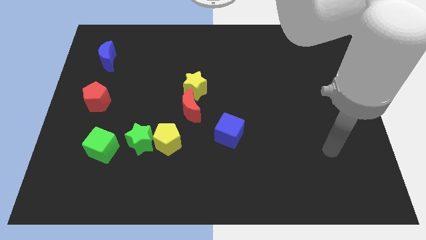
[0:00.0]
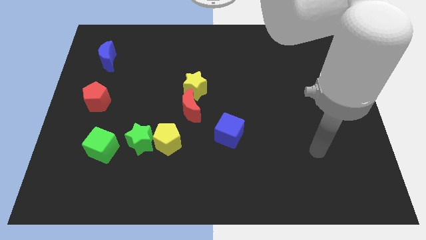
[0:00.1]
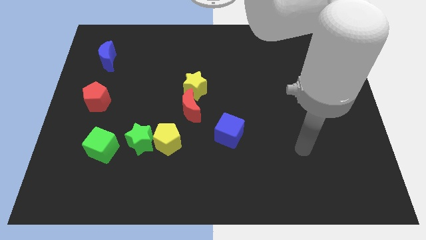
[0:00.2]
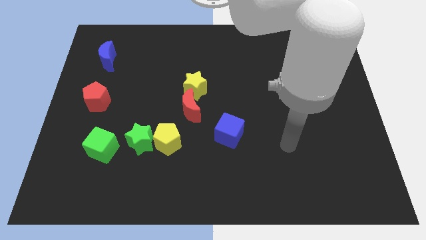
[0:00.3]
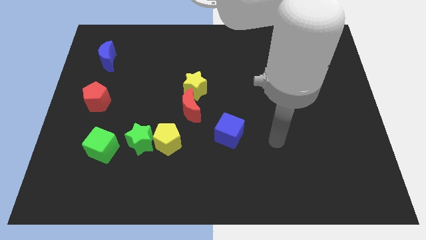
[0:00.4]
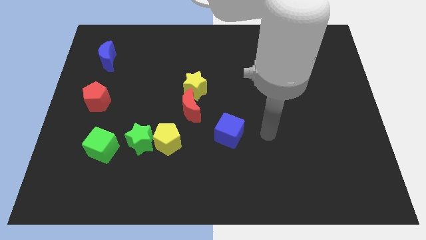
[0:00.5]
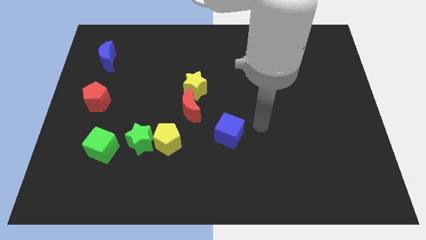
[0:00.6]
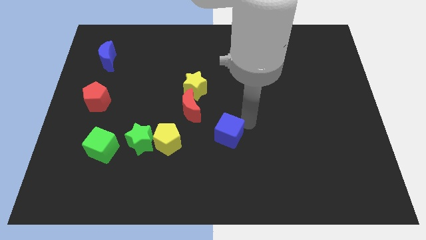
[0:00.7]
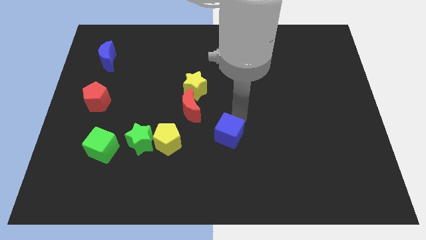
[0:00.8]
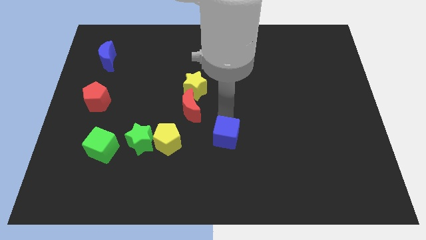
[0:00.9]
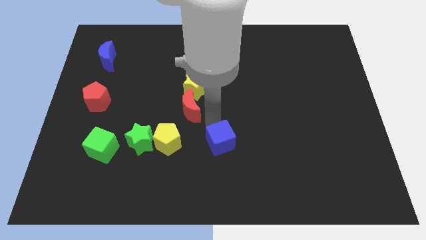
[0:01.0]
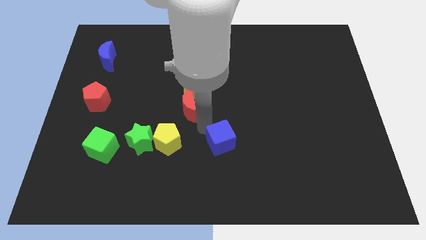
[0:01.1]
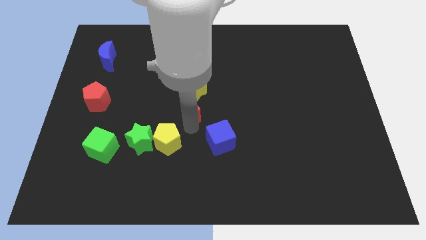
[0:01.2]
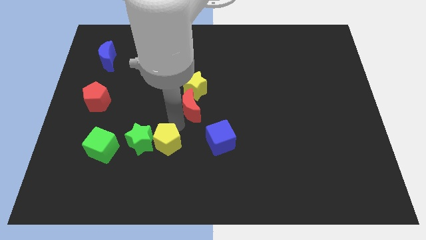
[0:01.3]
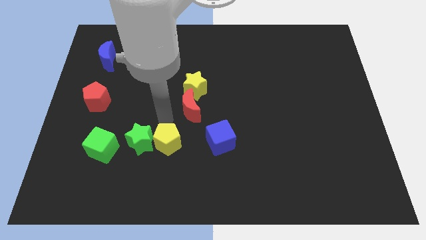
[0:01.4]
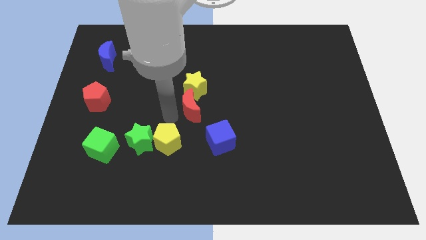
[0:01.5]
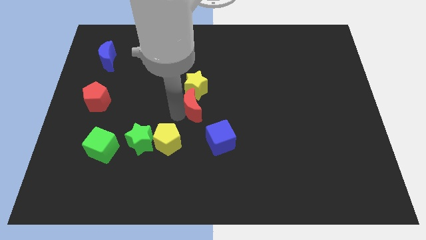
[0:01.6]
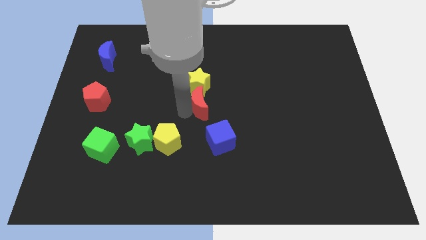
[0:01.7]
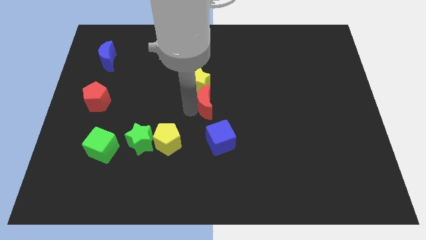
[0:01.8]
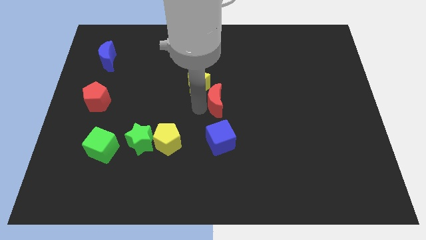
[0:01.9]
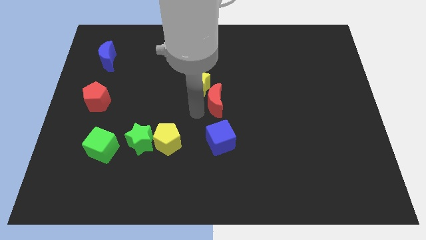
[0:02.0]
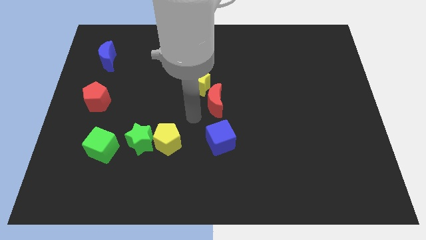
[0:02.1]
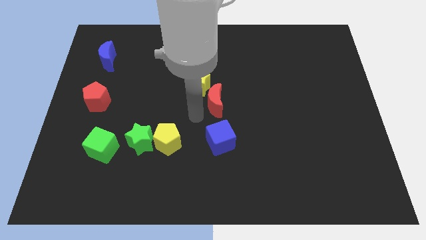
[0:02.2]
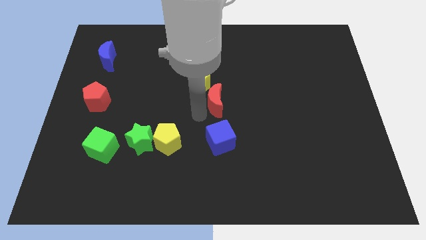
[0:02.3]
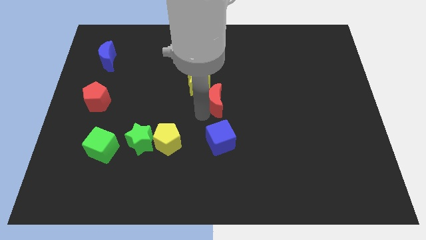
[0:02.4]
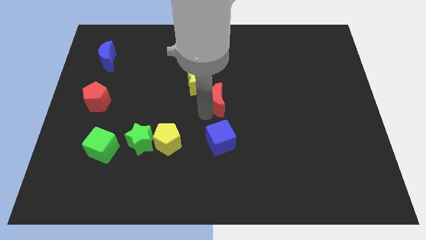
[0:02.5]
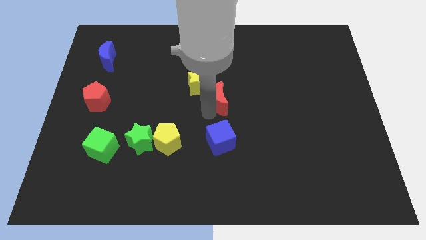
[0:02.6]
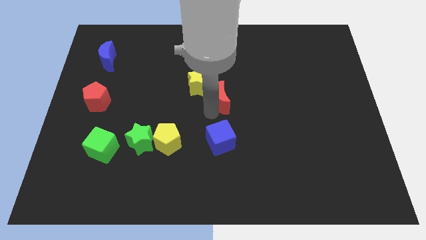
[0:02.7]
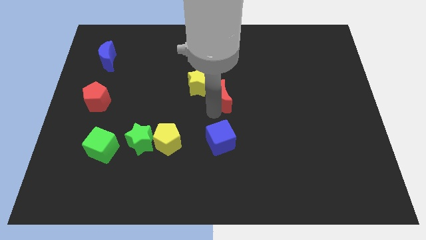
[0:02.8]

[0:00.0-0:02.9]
push the red moon up and then to the right somewhat

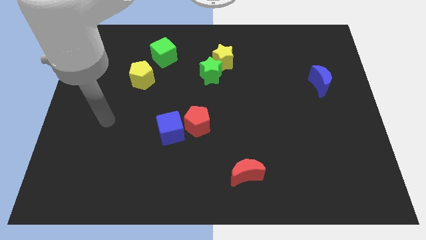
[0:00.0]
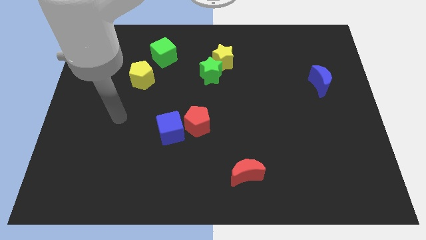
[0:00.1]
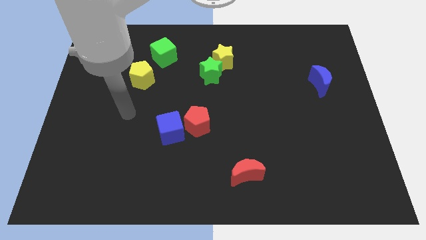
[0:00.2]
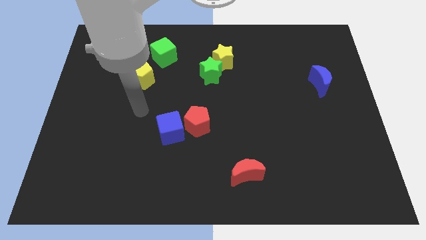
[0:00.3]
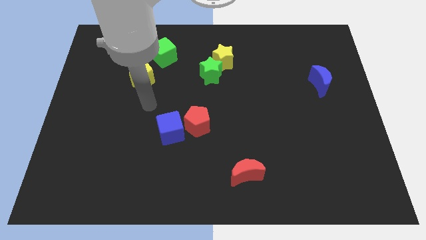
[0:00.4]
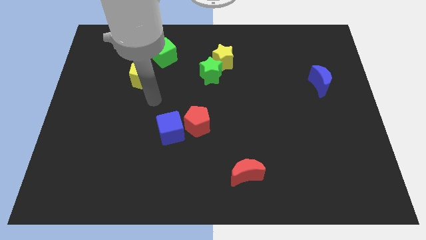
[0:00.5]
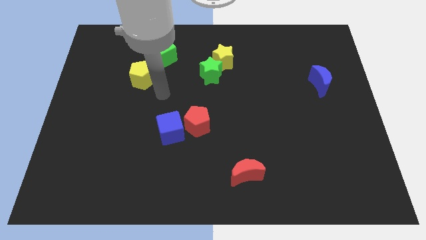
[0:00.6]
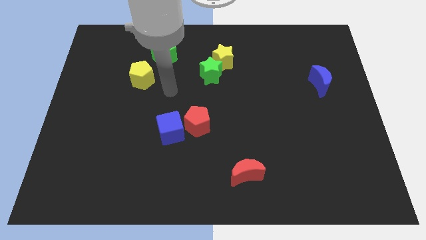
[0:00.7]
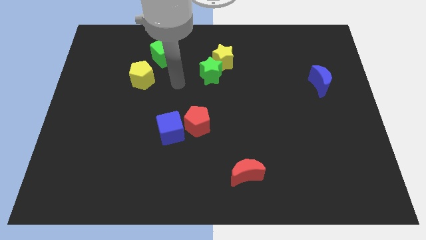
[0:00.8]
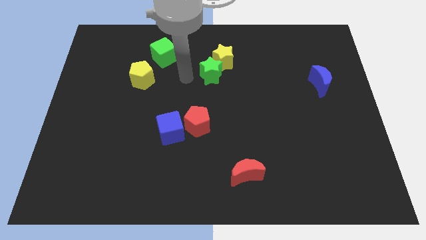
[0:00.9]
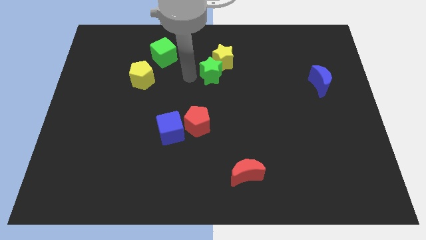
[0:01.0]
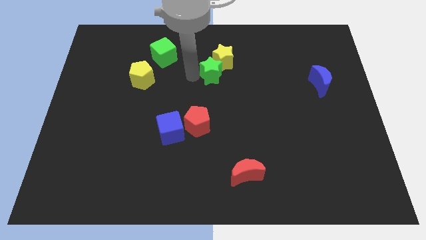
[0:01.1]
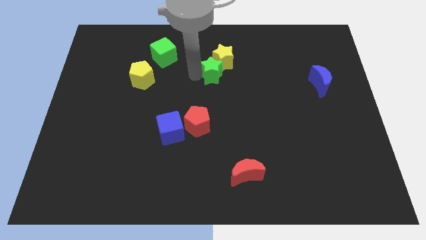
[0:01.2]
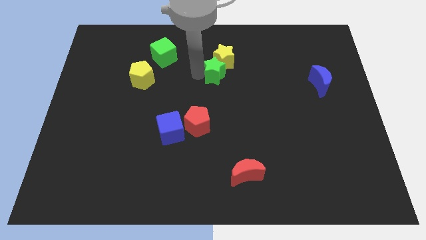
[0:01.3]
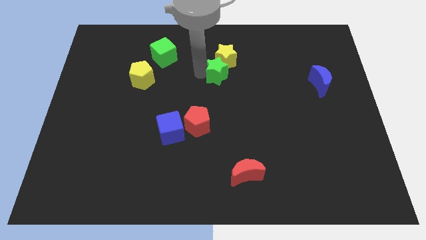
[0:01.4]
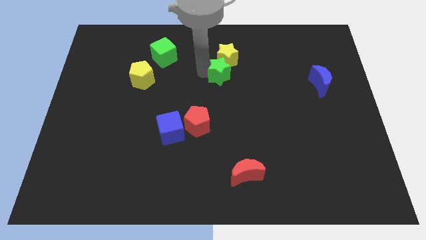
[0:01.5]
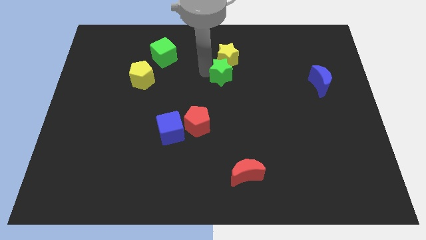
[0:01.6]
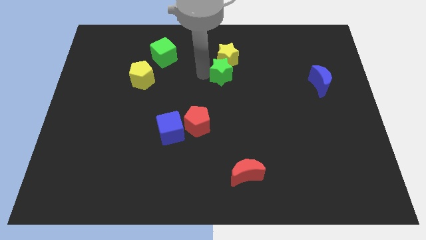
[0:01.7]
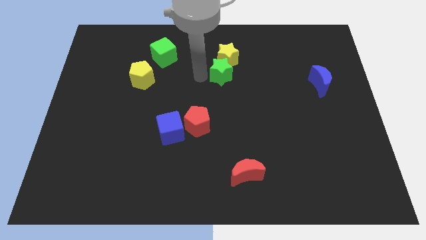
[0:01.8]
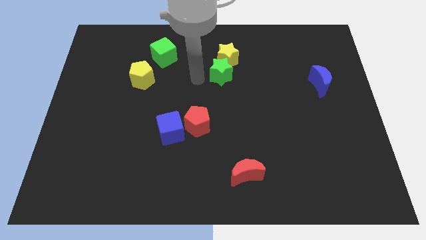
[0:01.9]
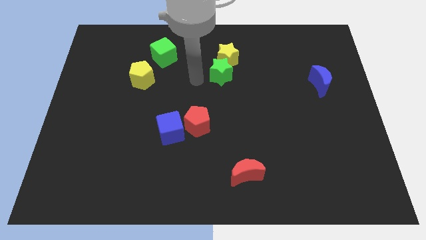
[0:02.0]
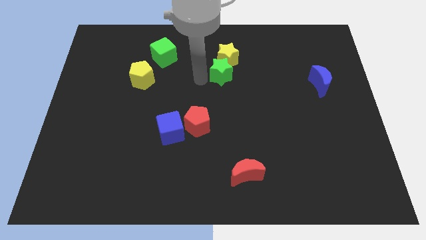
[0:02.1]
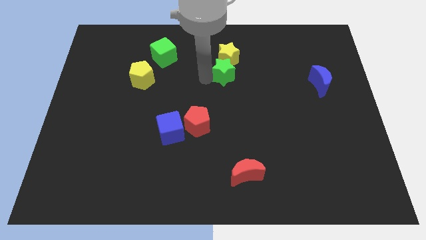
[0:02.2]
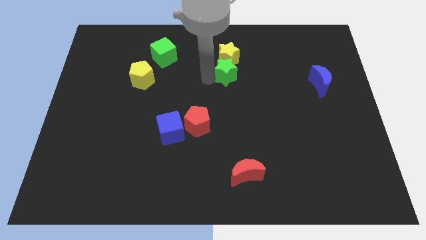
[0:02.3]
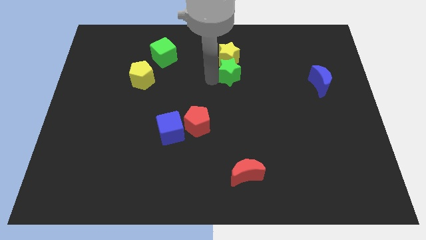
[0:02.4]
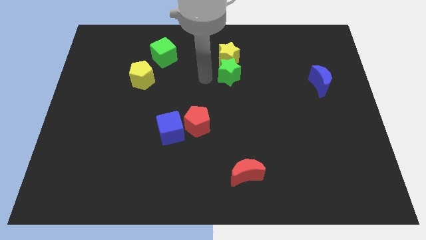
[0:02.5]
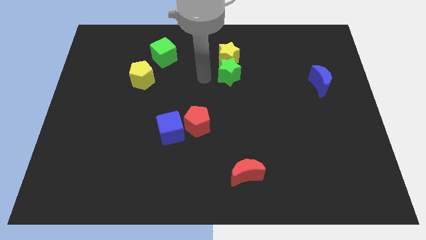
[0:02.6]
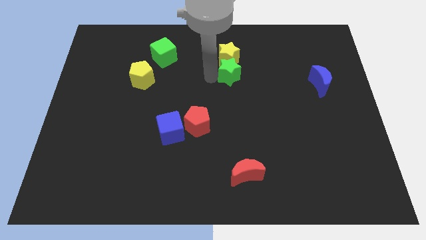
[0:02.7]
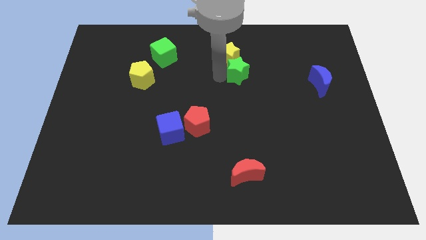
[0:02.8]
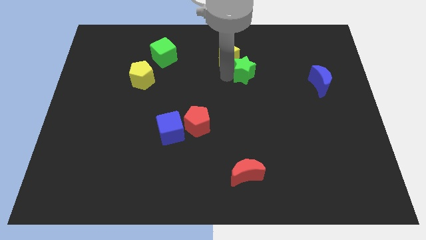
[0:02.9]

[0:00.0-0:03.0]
move the green star to the right a little bit

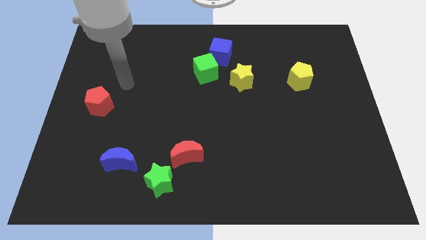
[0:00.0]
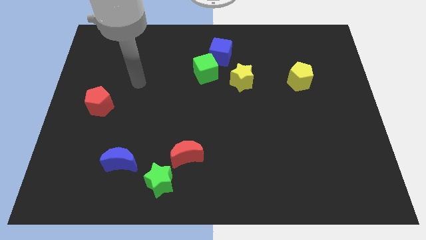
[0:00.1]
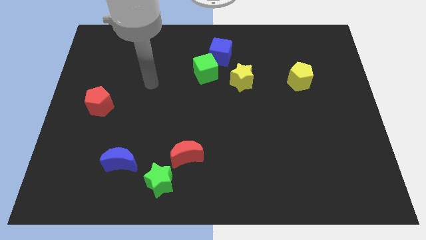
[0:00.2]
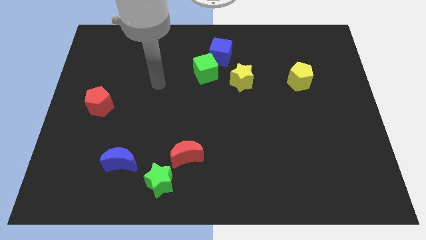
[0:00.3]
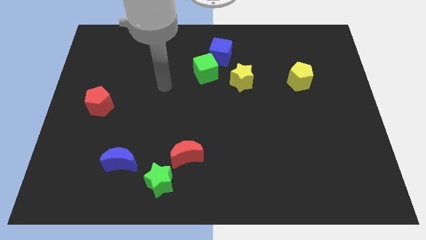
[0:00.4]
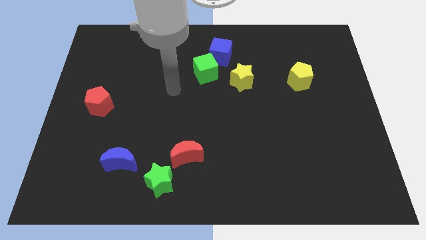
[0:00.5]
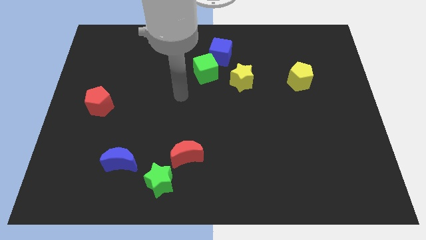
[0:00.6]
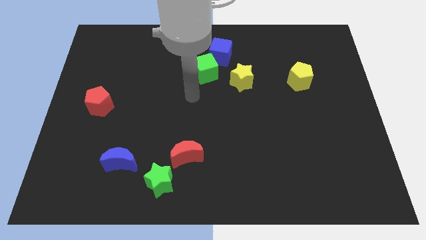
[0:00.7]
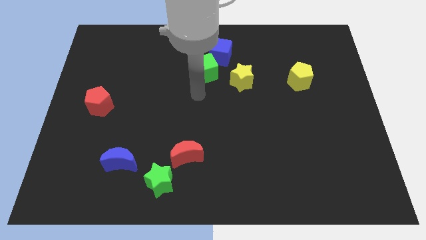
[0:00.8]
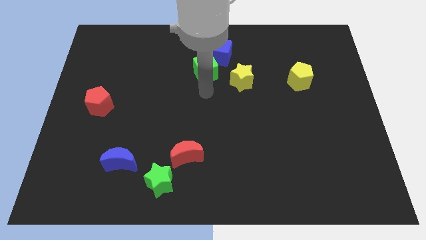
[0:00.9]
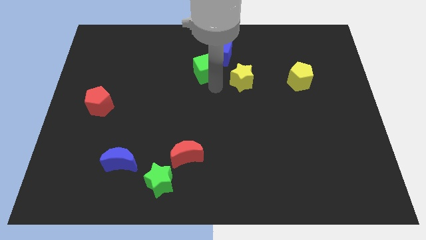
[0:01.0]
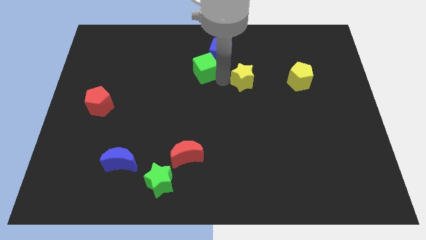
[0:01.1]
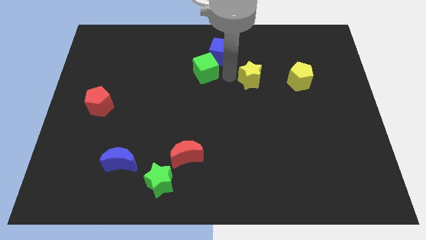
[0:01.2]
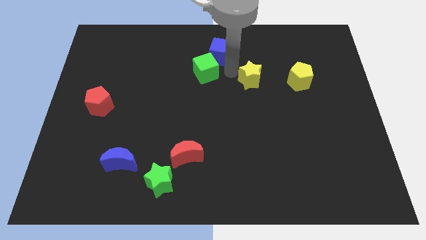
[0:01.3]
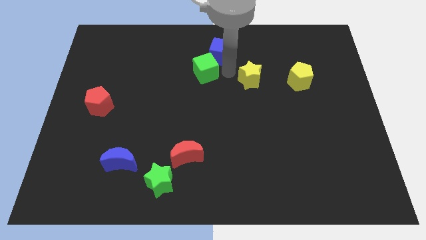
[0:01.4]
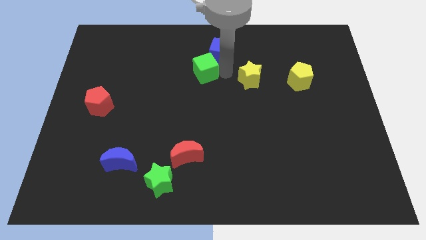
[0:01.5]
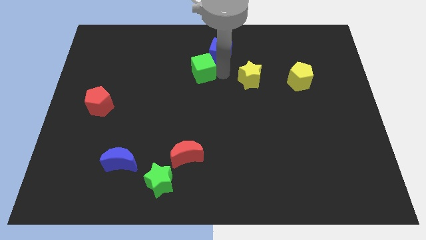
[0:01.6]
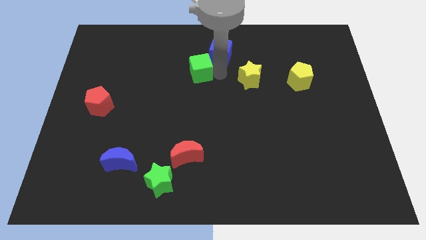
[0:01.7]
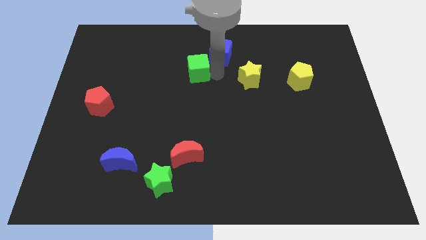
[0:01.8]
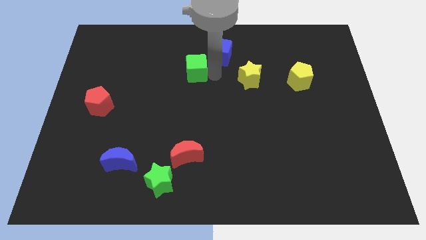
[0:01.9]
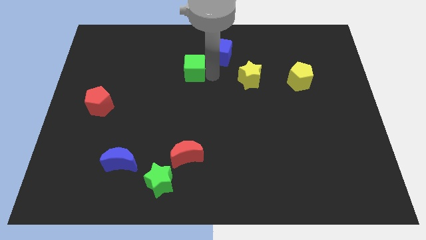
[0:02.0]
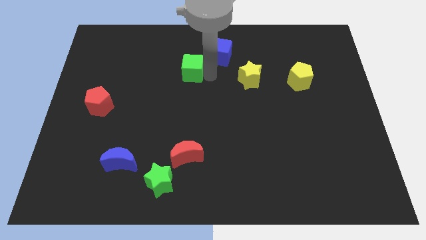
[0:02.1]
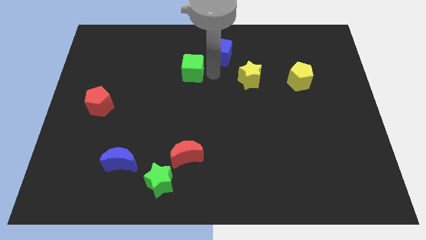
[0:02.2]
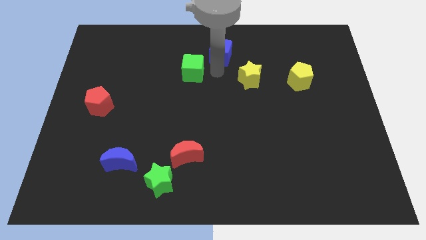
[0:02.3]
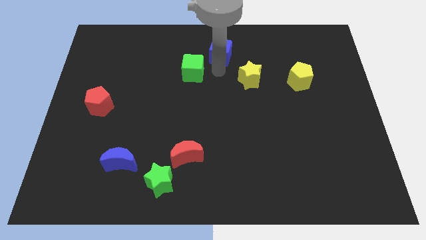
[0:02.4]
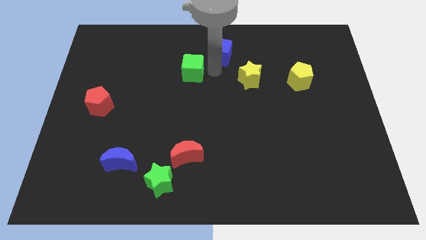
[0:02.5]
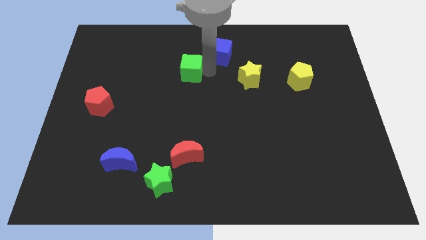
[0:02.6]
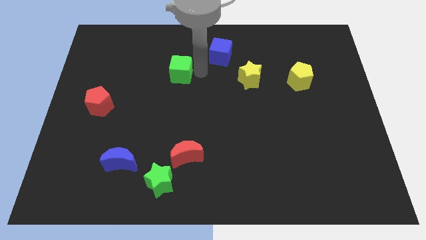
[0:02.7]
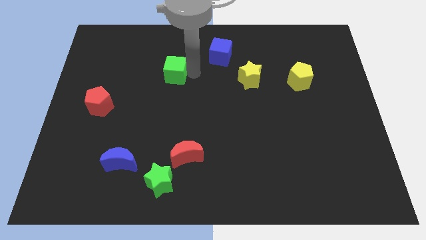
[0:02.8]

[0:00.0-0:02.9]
slightly push the green cube to the left
